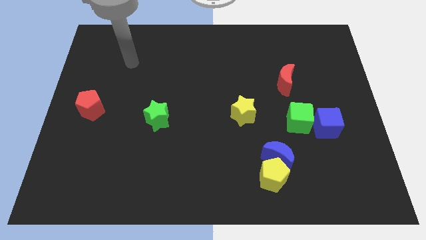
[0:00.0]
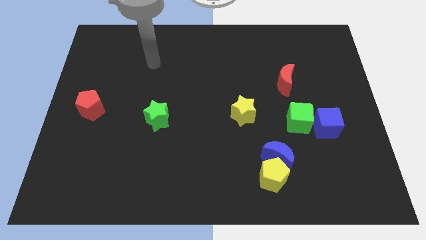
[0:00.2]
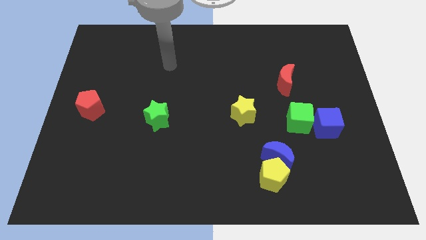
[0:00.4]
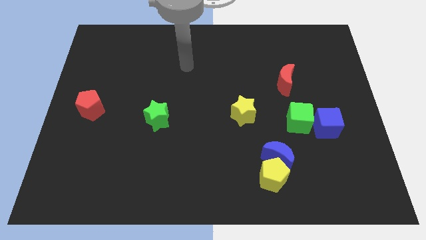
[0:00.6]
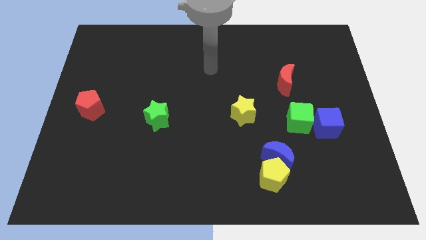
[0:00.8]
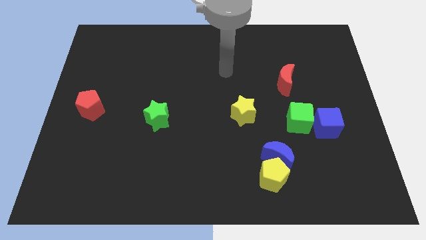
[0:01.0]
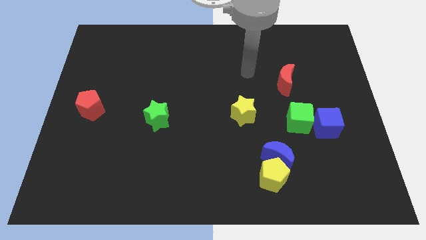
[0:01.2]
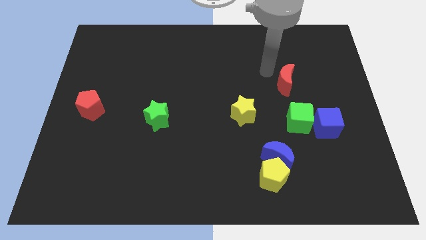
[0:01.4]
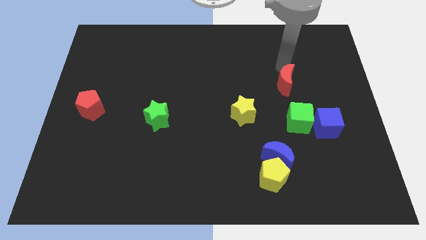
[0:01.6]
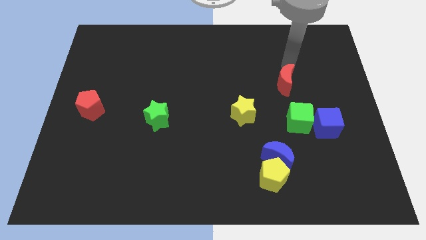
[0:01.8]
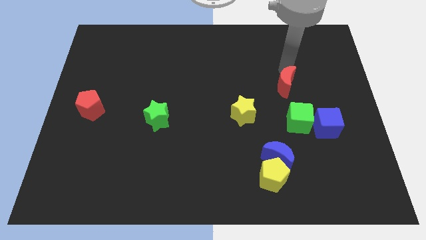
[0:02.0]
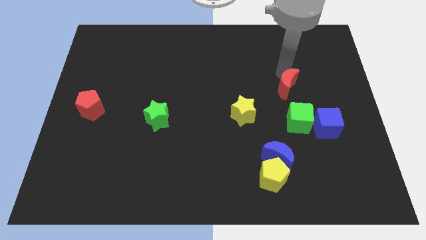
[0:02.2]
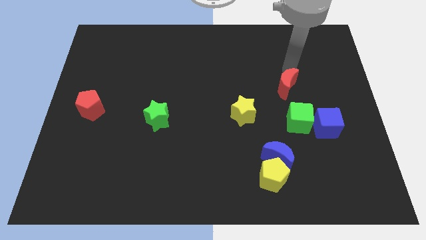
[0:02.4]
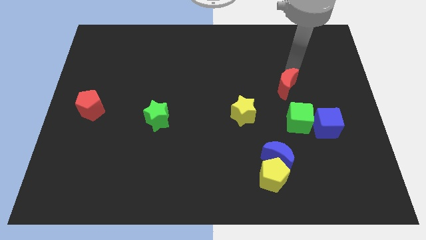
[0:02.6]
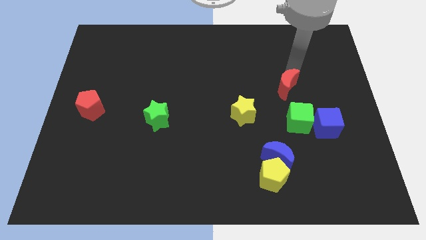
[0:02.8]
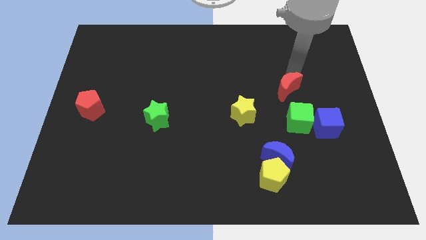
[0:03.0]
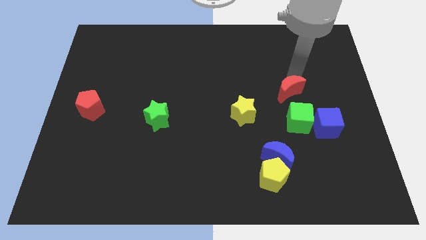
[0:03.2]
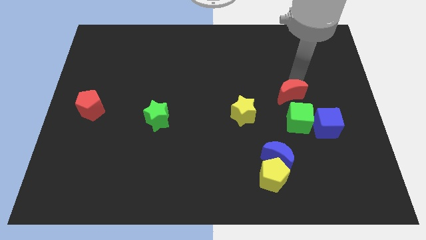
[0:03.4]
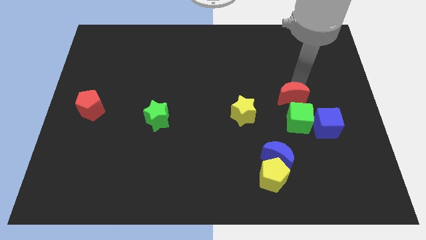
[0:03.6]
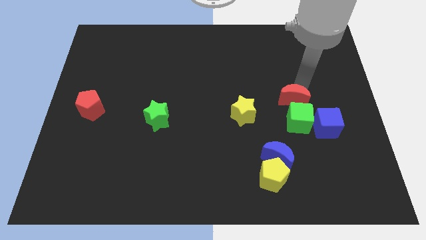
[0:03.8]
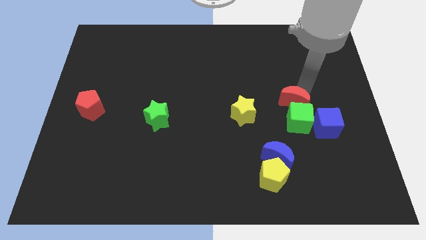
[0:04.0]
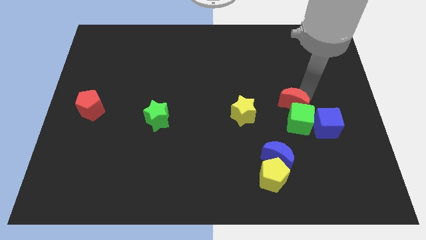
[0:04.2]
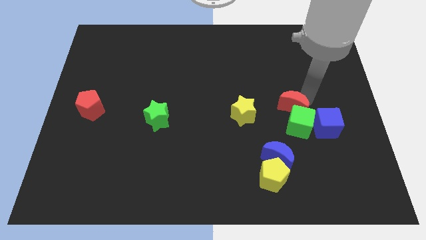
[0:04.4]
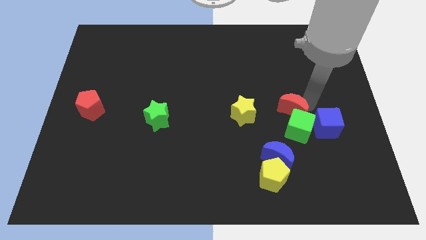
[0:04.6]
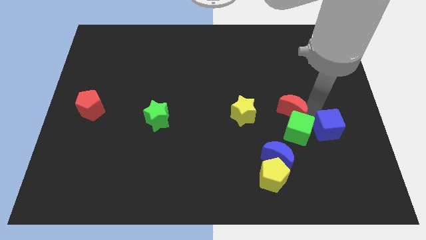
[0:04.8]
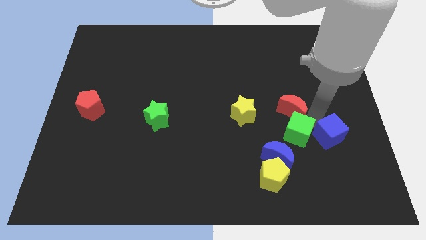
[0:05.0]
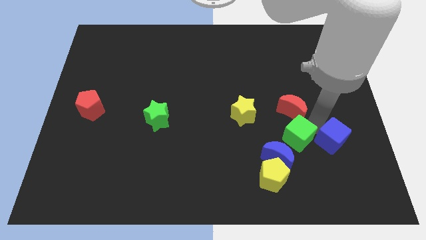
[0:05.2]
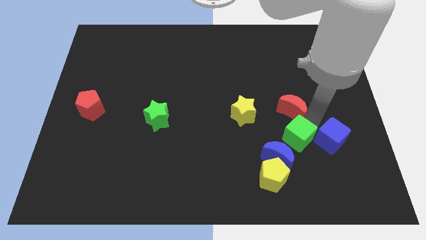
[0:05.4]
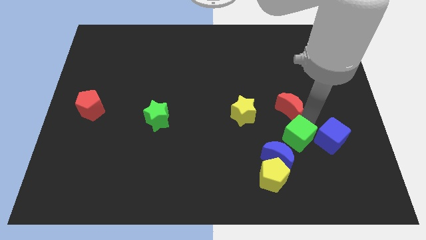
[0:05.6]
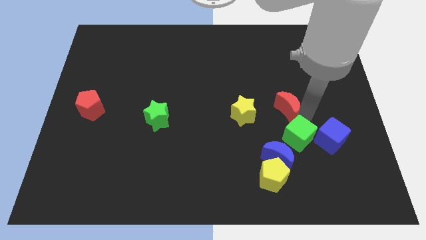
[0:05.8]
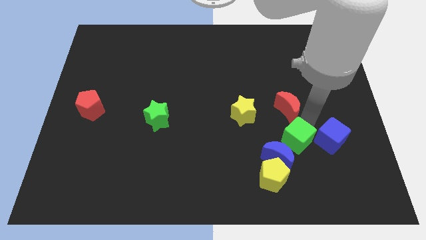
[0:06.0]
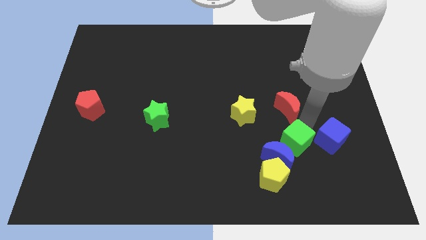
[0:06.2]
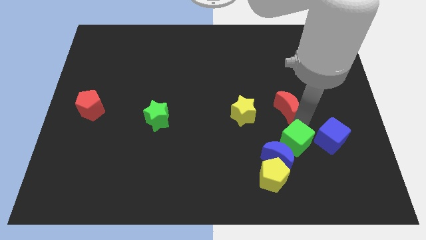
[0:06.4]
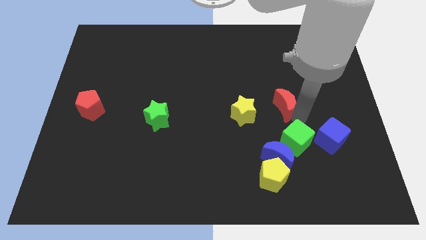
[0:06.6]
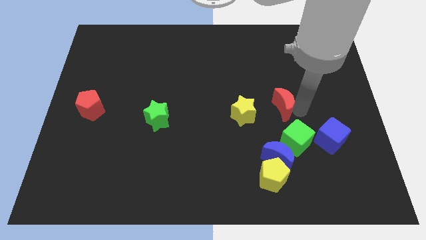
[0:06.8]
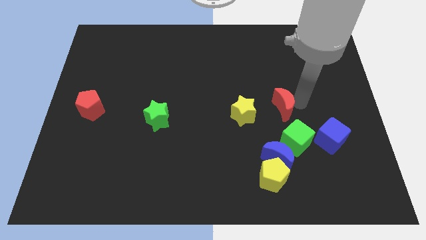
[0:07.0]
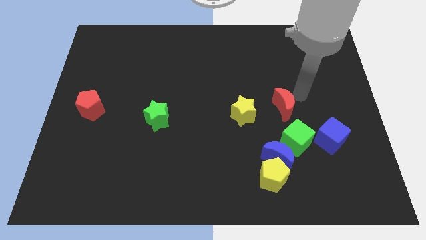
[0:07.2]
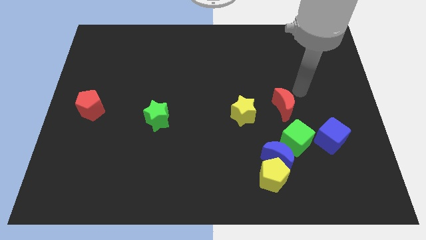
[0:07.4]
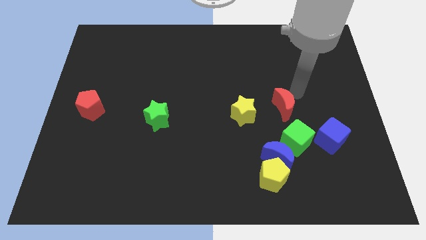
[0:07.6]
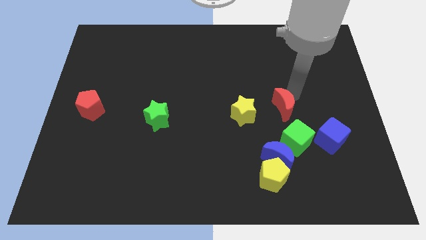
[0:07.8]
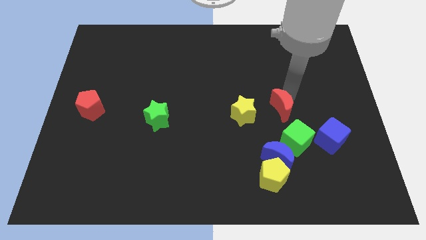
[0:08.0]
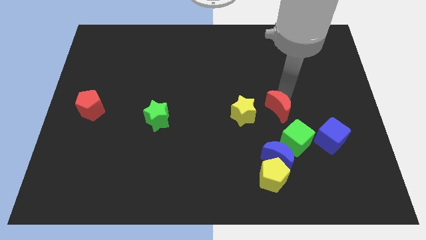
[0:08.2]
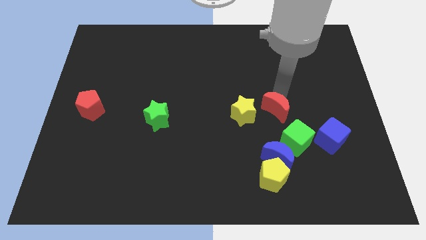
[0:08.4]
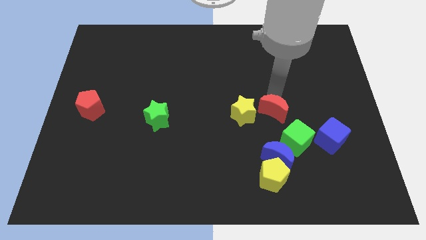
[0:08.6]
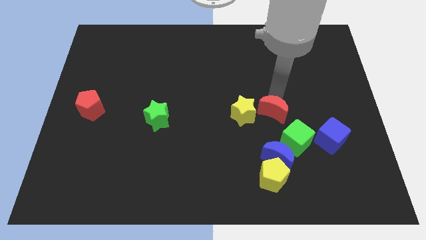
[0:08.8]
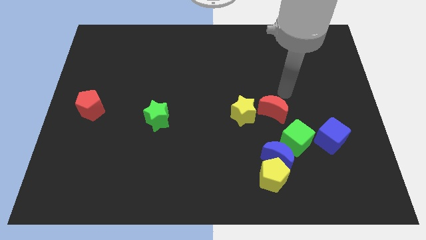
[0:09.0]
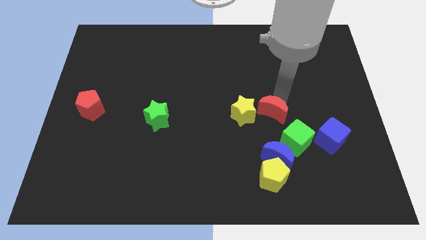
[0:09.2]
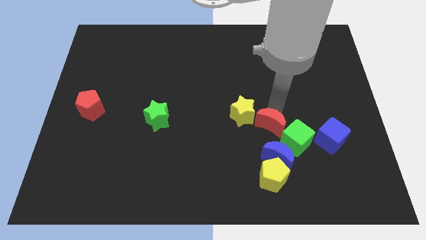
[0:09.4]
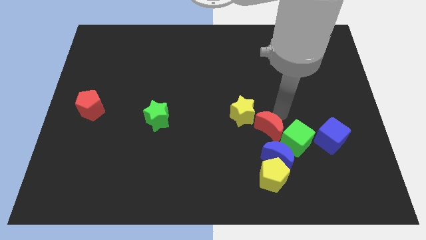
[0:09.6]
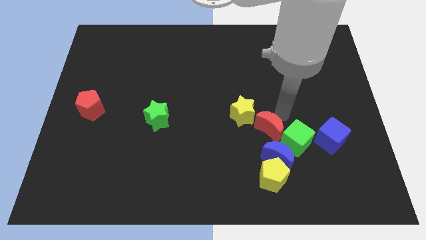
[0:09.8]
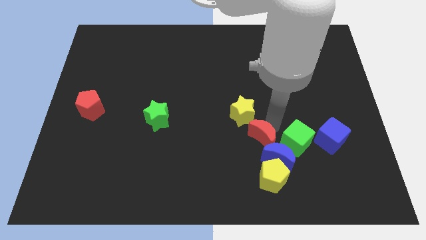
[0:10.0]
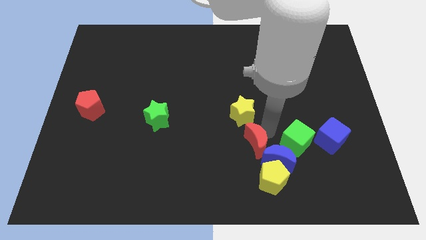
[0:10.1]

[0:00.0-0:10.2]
move the red moon to the top left of the yellow pentagon

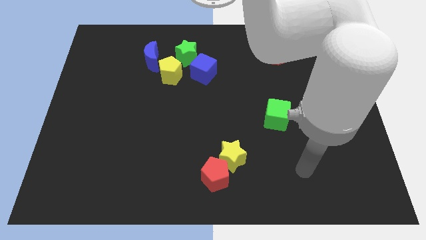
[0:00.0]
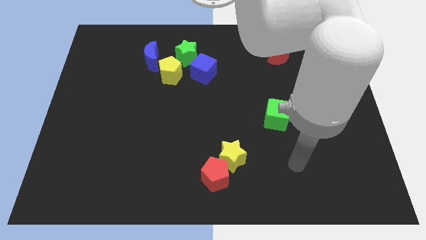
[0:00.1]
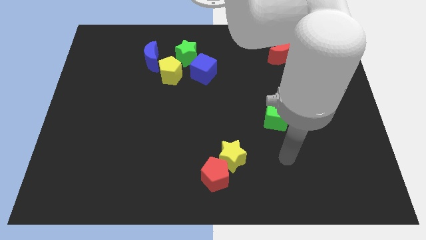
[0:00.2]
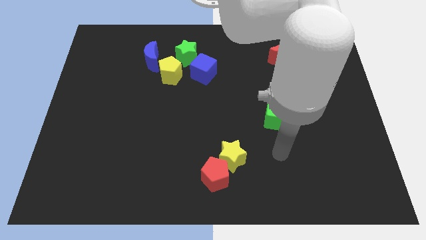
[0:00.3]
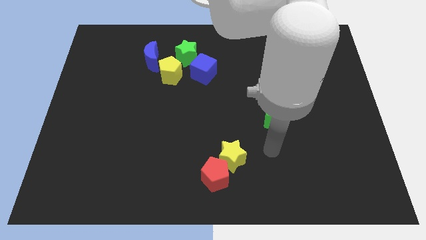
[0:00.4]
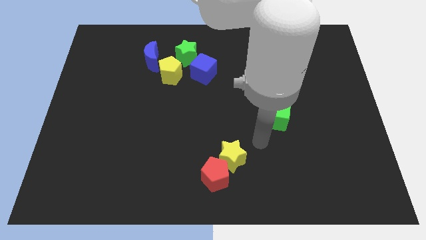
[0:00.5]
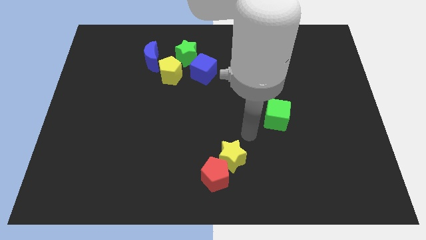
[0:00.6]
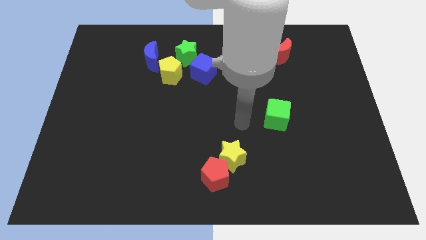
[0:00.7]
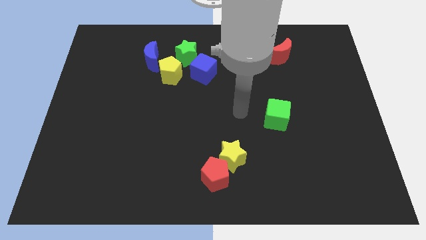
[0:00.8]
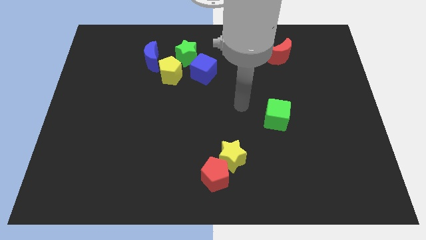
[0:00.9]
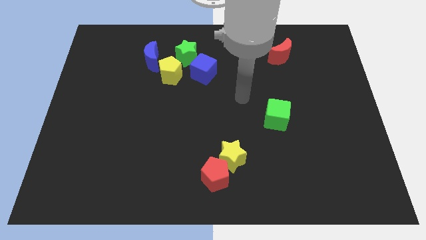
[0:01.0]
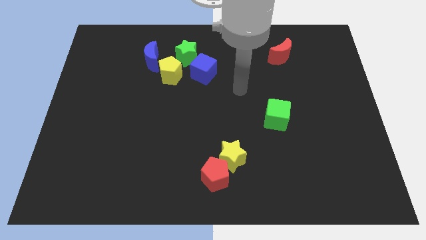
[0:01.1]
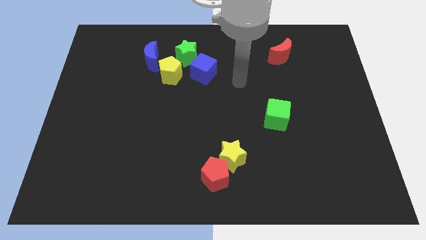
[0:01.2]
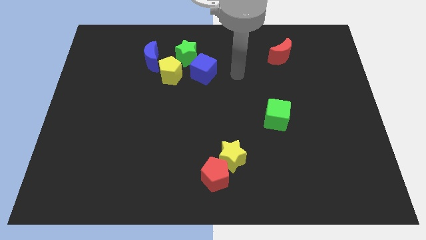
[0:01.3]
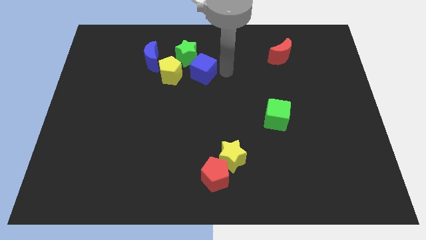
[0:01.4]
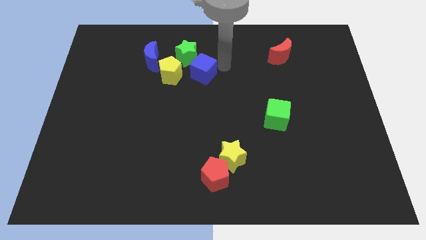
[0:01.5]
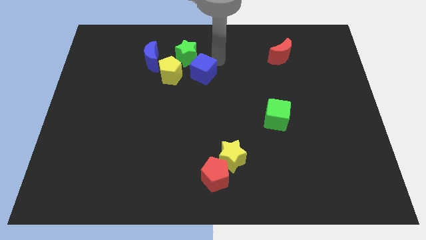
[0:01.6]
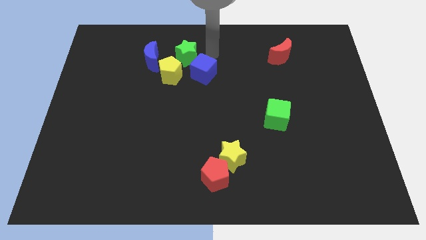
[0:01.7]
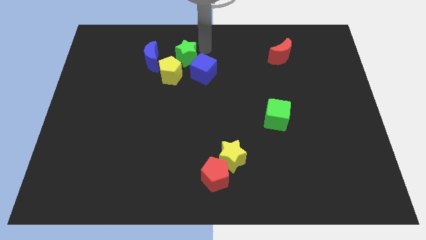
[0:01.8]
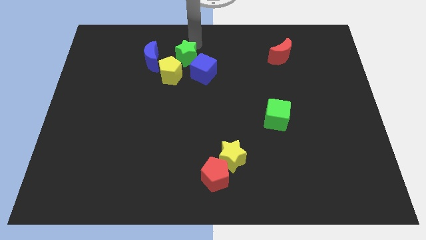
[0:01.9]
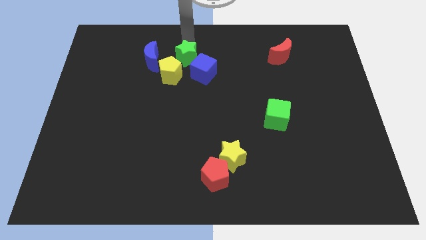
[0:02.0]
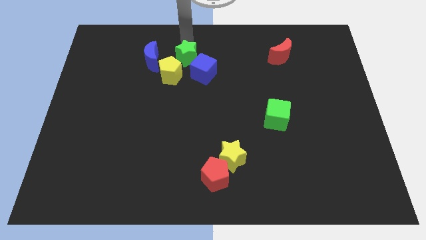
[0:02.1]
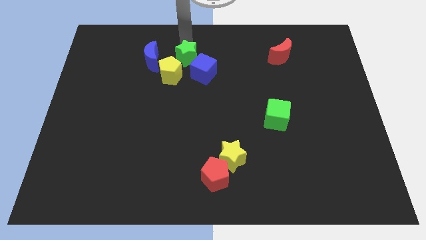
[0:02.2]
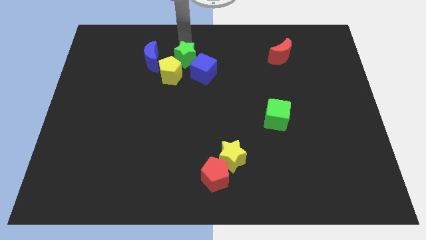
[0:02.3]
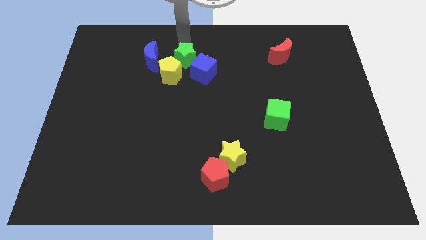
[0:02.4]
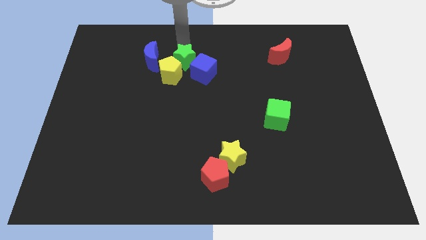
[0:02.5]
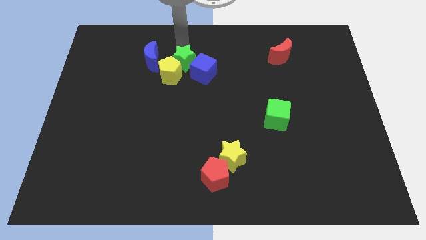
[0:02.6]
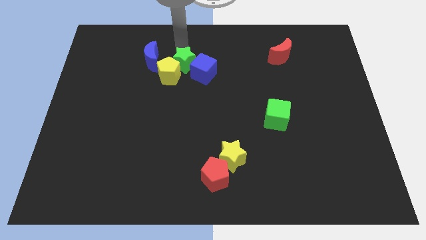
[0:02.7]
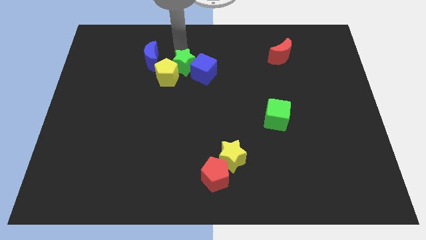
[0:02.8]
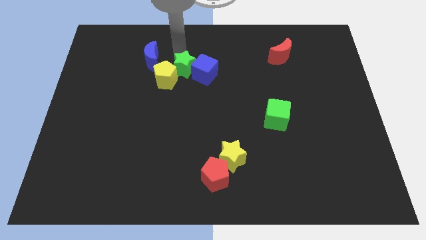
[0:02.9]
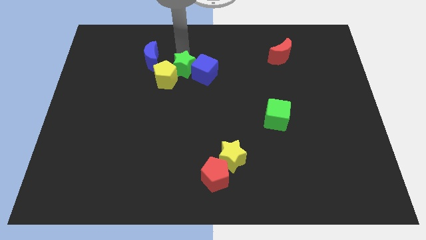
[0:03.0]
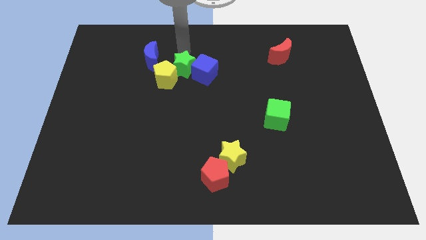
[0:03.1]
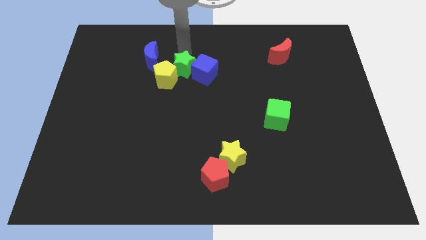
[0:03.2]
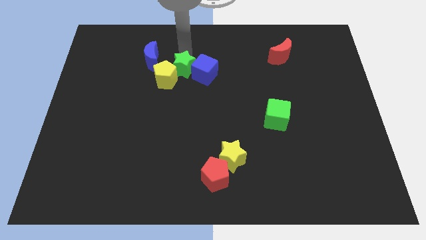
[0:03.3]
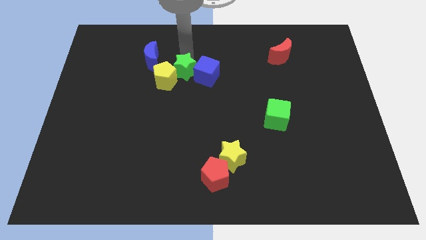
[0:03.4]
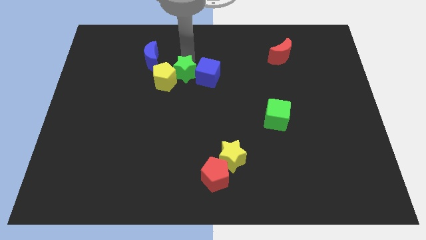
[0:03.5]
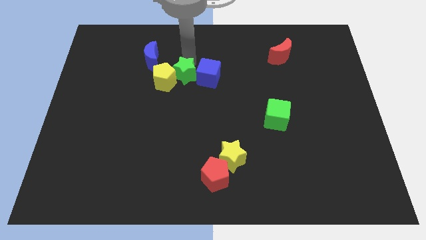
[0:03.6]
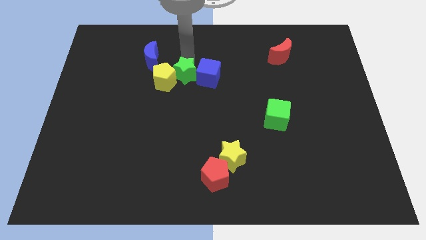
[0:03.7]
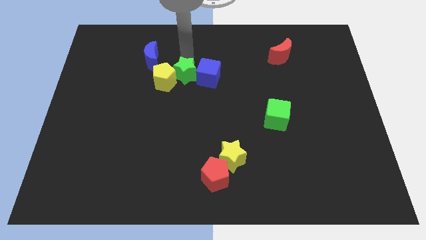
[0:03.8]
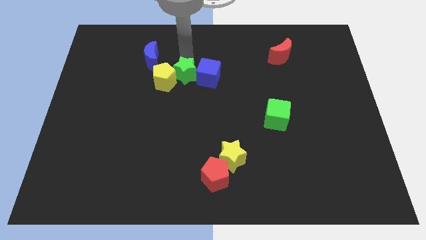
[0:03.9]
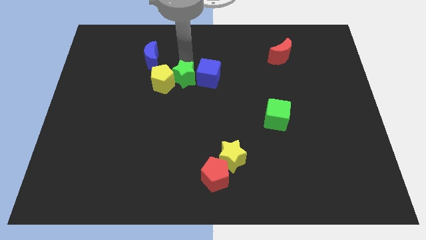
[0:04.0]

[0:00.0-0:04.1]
move the green star to the bottom right of the yellow pentagon
